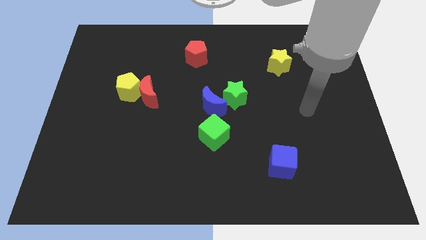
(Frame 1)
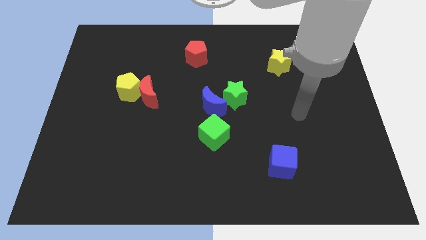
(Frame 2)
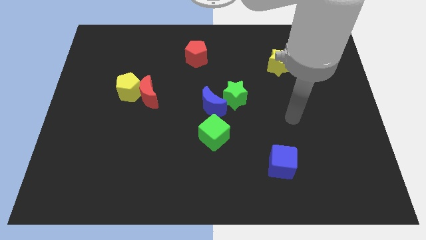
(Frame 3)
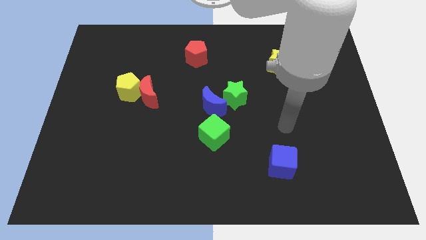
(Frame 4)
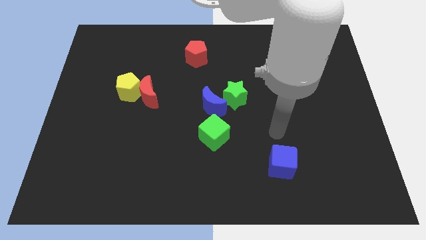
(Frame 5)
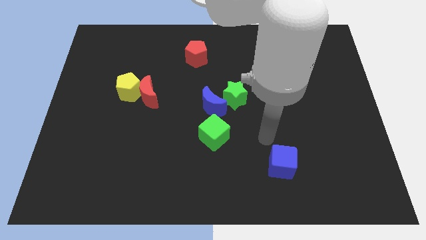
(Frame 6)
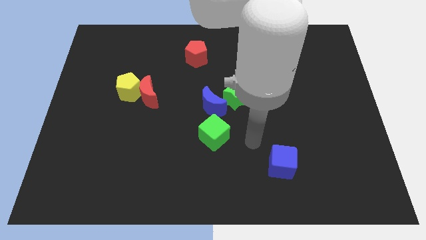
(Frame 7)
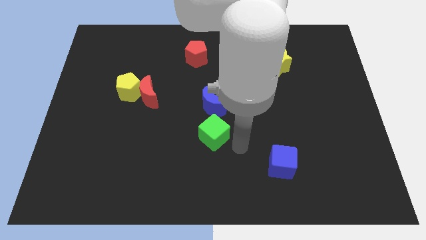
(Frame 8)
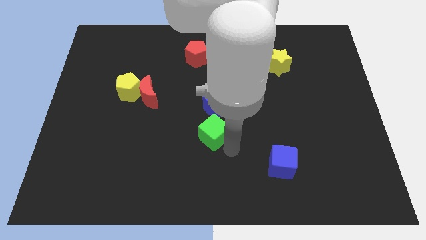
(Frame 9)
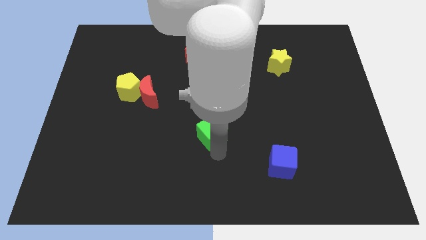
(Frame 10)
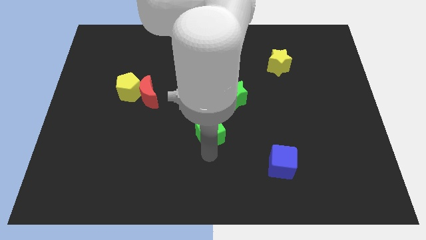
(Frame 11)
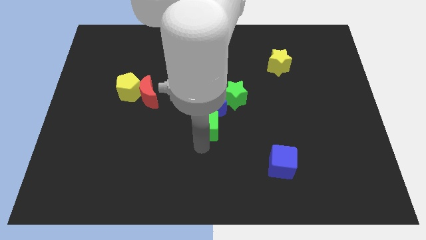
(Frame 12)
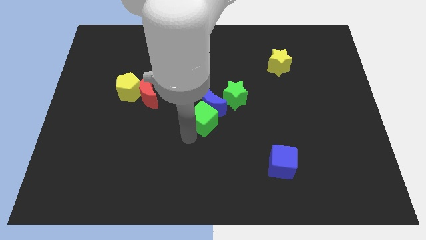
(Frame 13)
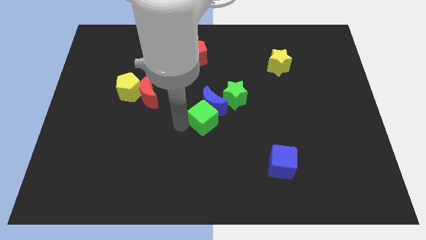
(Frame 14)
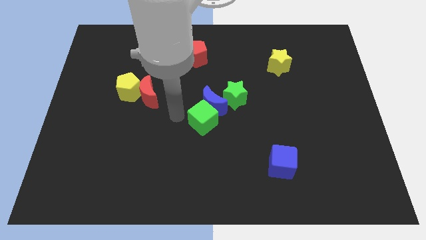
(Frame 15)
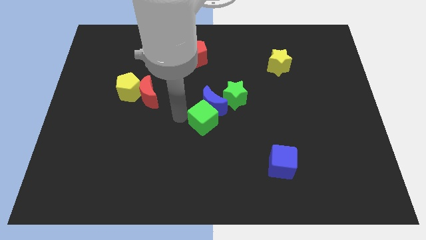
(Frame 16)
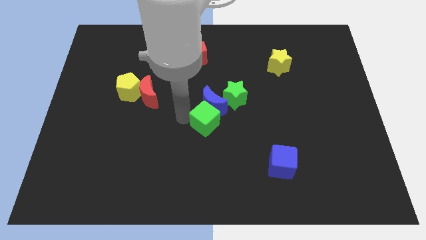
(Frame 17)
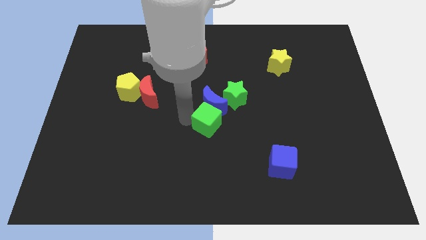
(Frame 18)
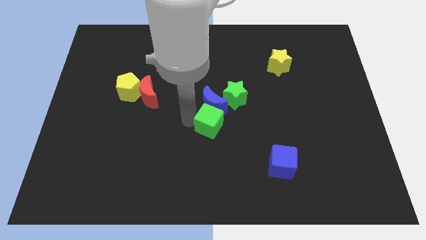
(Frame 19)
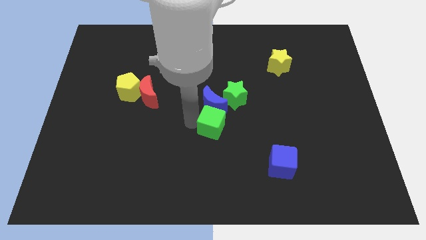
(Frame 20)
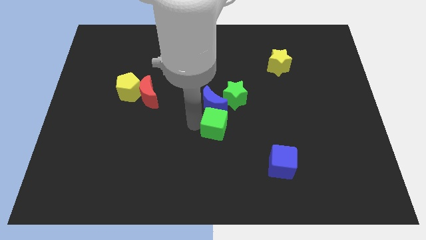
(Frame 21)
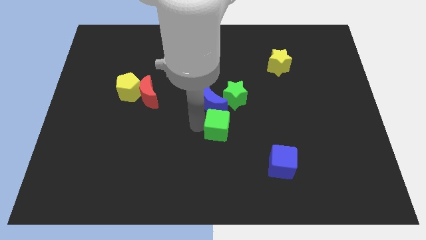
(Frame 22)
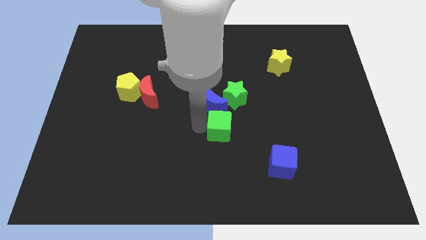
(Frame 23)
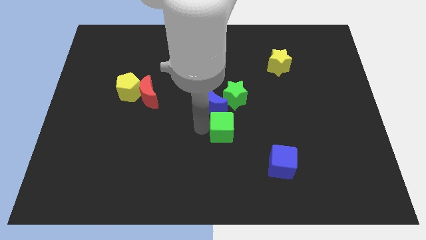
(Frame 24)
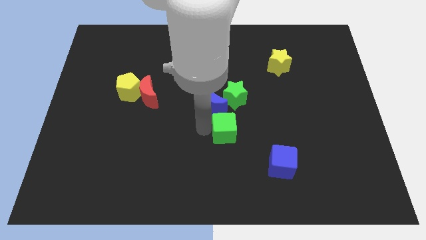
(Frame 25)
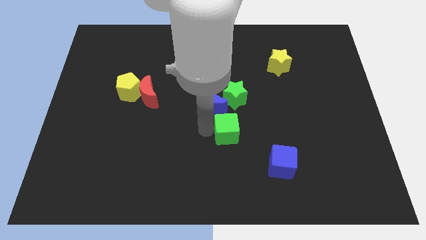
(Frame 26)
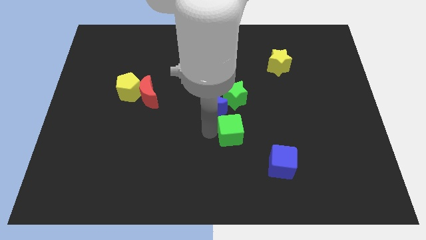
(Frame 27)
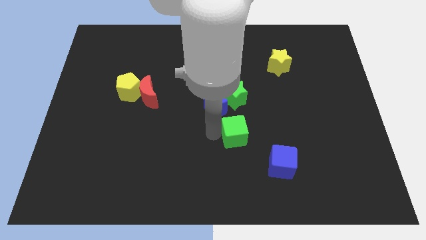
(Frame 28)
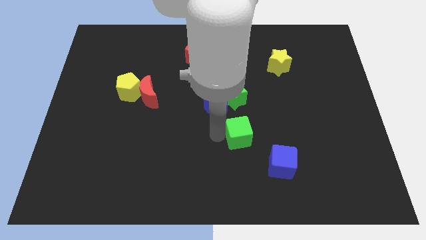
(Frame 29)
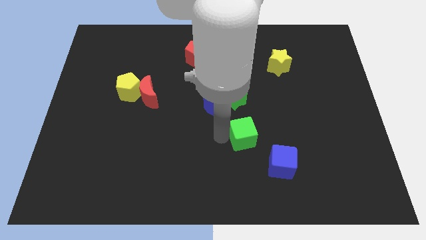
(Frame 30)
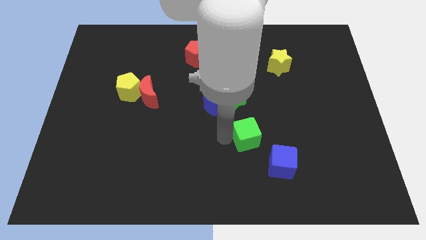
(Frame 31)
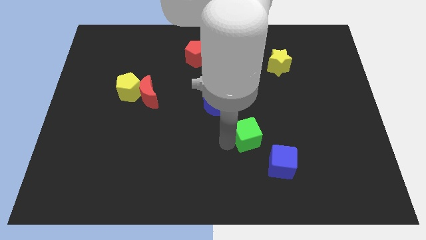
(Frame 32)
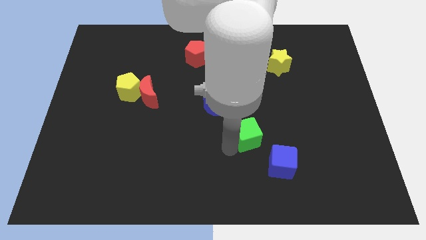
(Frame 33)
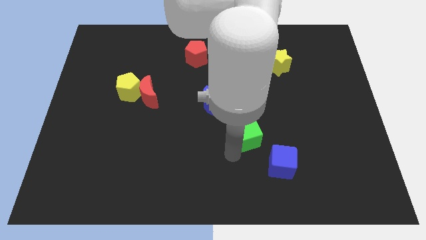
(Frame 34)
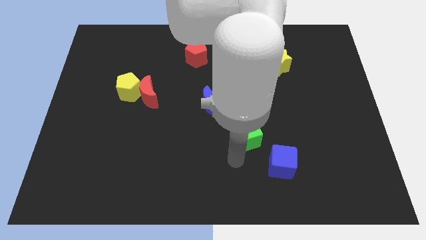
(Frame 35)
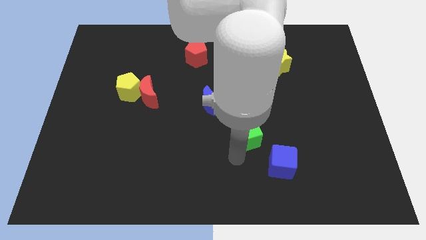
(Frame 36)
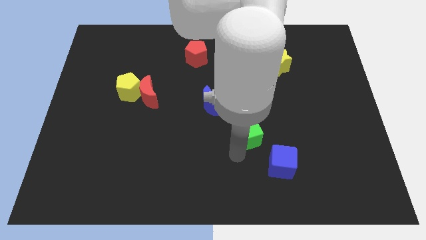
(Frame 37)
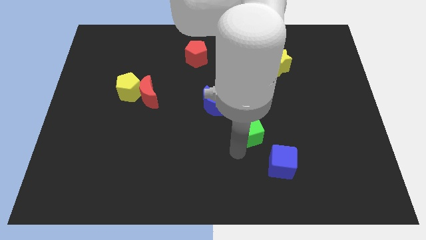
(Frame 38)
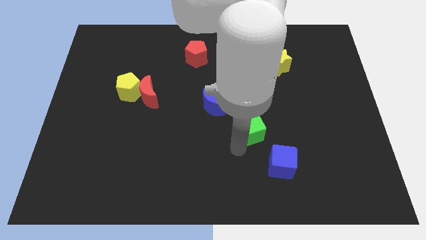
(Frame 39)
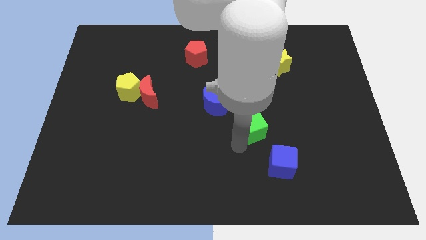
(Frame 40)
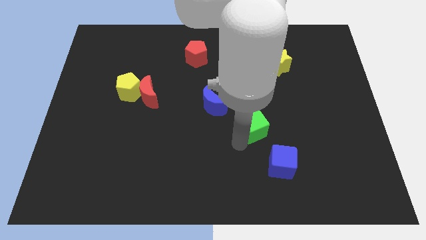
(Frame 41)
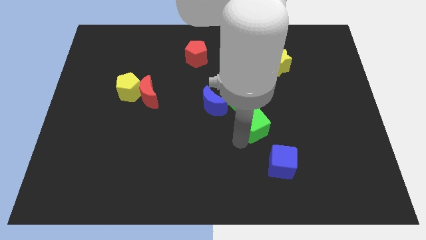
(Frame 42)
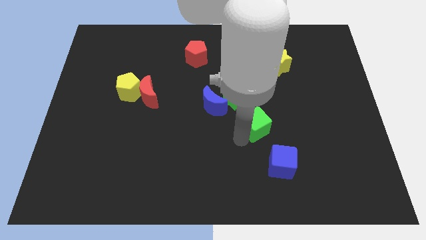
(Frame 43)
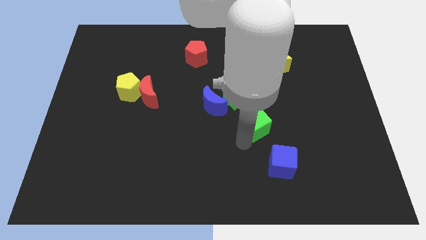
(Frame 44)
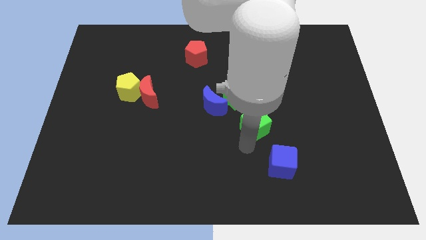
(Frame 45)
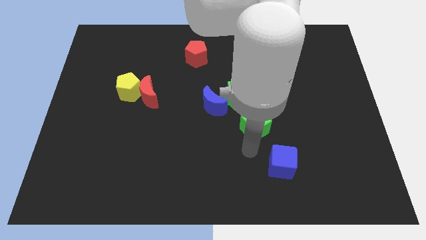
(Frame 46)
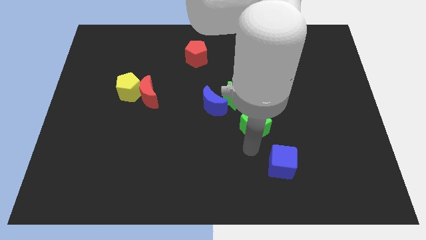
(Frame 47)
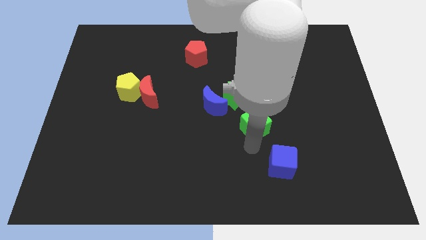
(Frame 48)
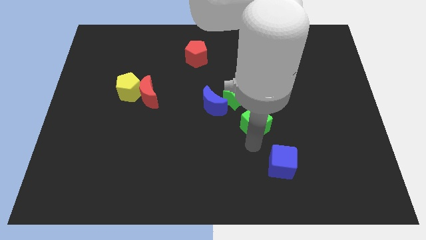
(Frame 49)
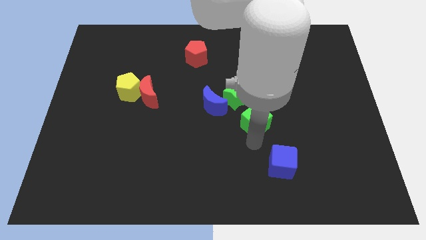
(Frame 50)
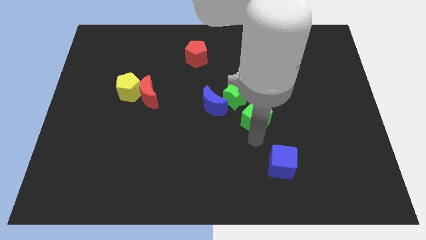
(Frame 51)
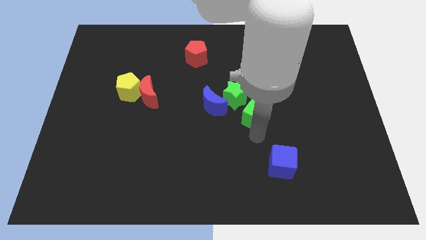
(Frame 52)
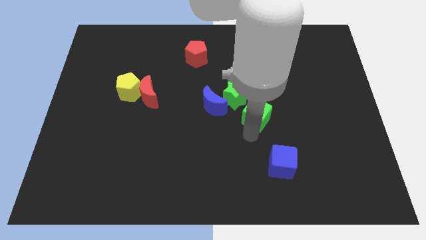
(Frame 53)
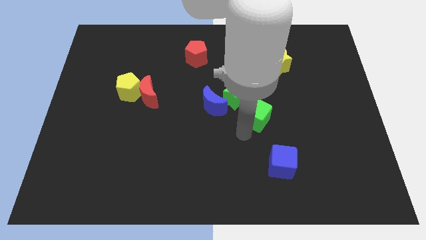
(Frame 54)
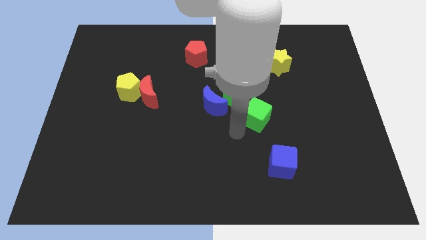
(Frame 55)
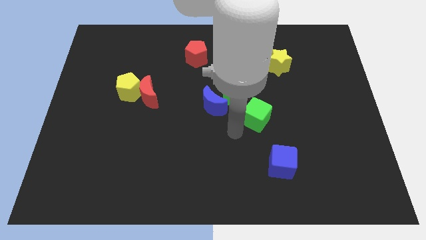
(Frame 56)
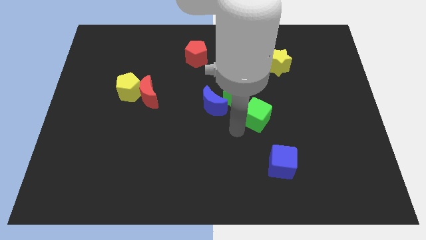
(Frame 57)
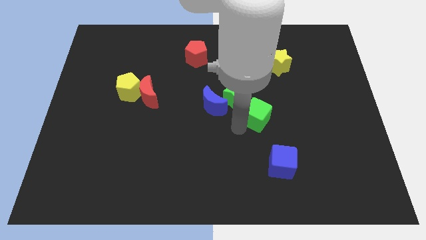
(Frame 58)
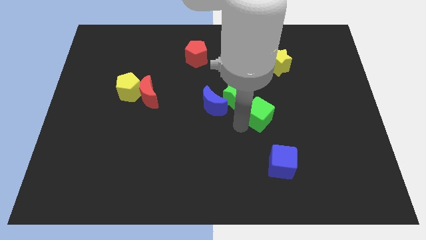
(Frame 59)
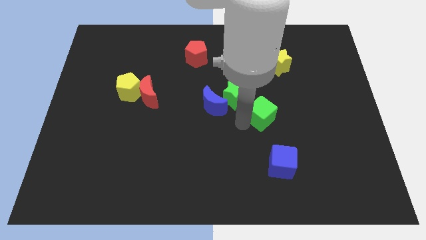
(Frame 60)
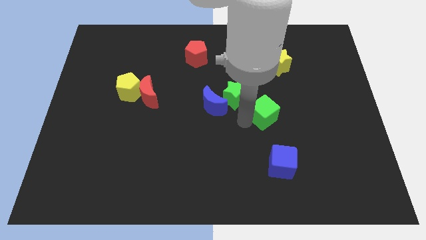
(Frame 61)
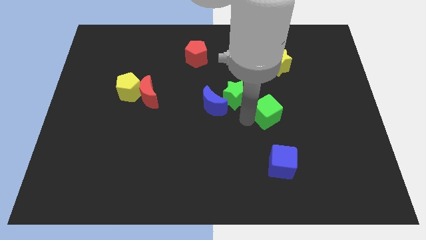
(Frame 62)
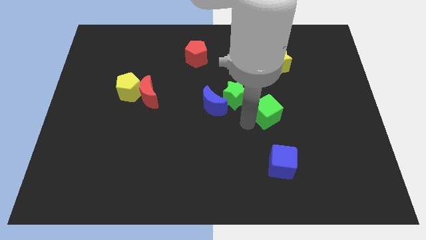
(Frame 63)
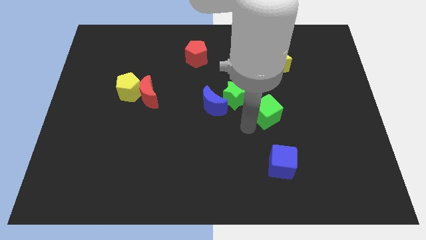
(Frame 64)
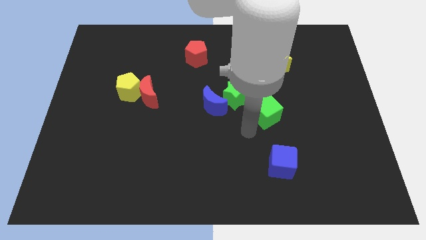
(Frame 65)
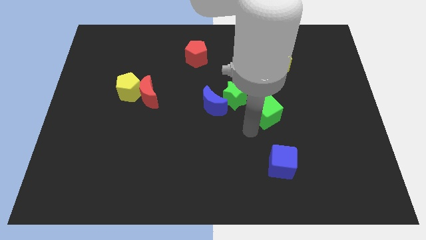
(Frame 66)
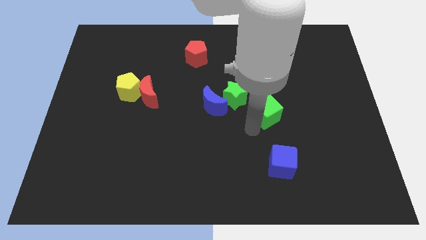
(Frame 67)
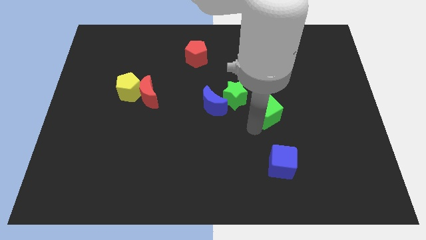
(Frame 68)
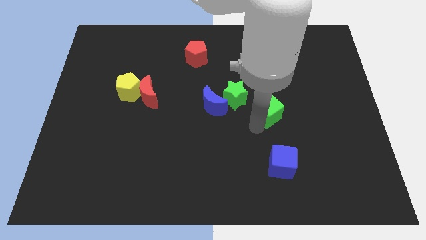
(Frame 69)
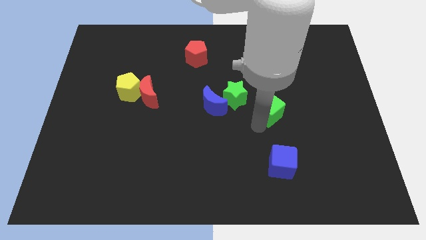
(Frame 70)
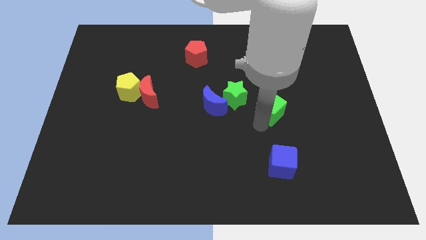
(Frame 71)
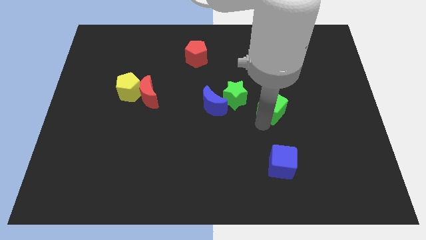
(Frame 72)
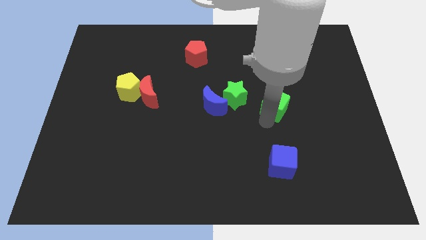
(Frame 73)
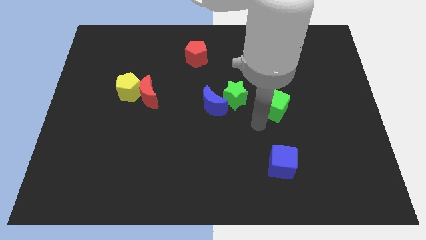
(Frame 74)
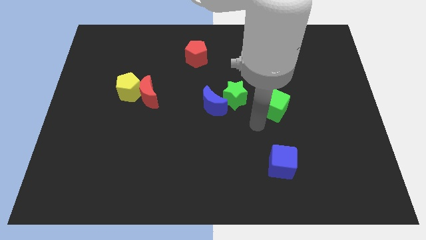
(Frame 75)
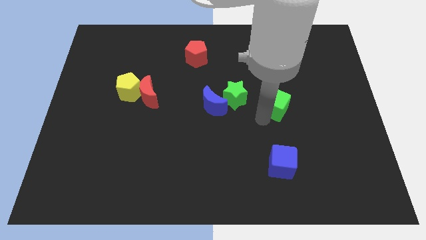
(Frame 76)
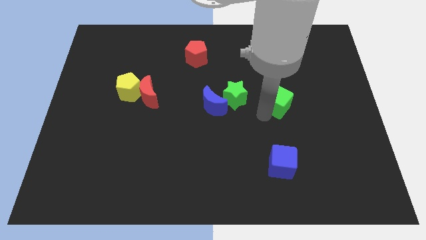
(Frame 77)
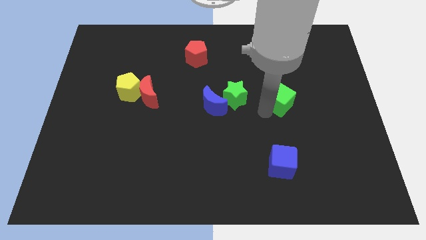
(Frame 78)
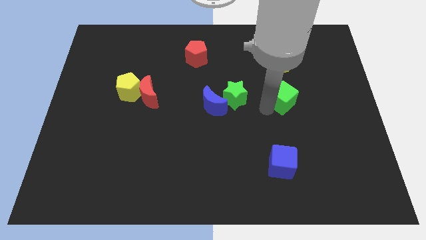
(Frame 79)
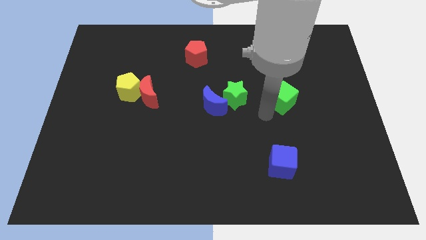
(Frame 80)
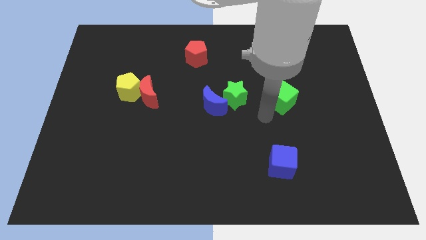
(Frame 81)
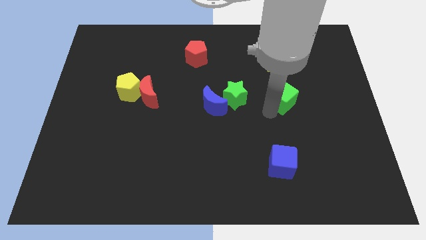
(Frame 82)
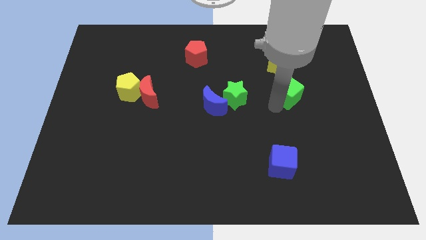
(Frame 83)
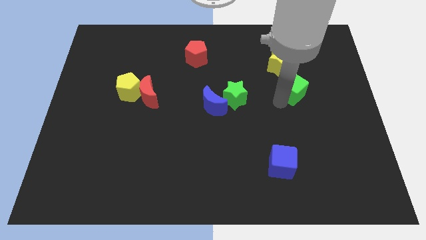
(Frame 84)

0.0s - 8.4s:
push the green cube to the bottom right of the yellow star
